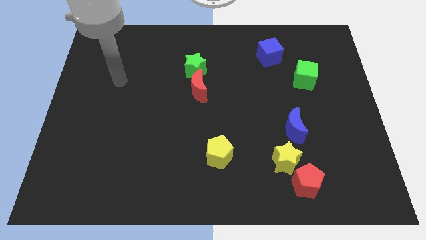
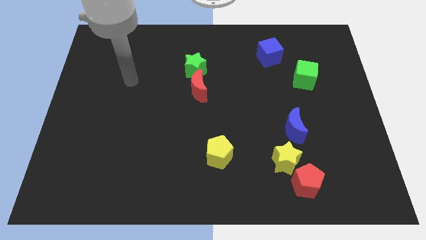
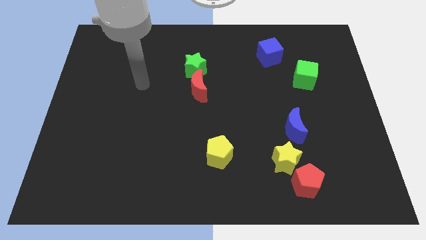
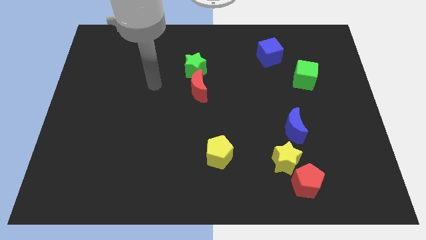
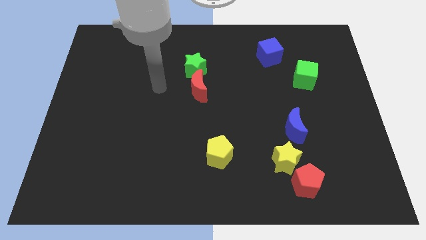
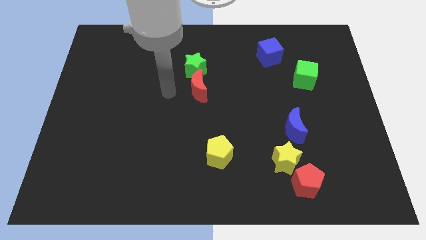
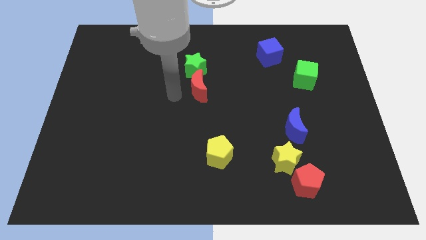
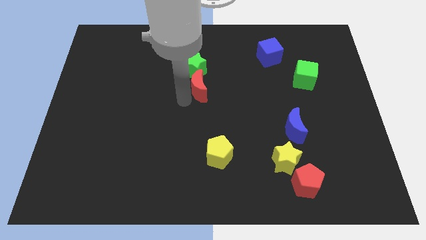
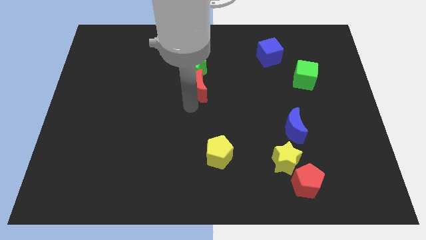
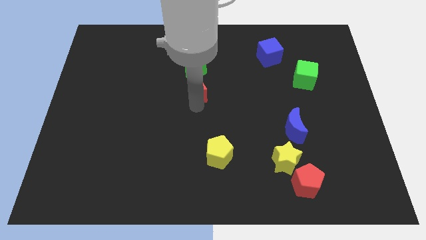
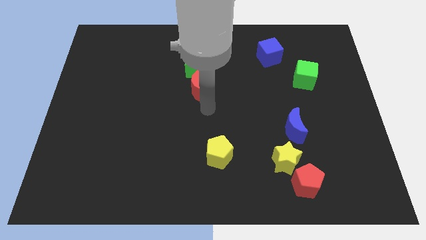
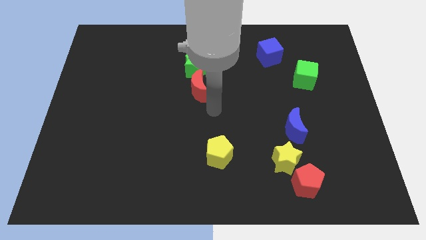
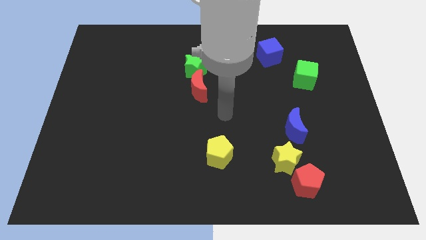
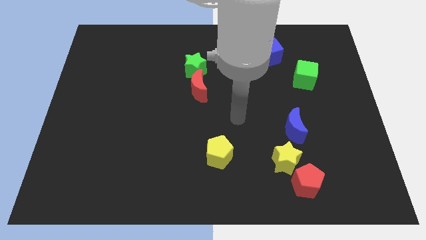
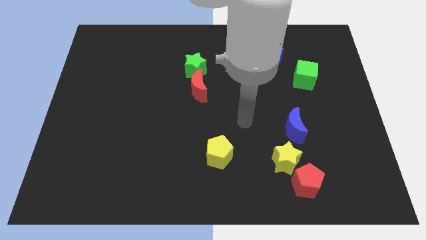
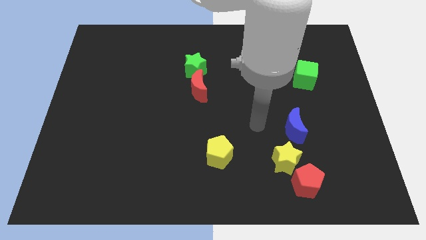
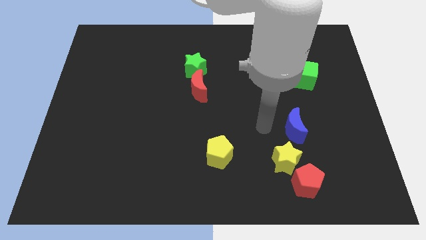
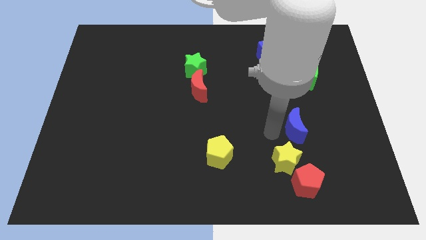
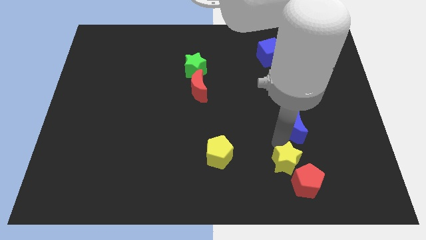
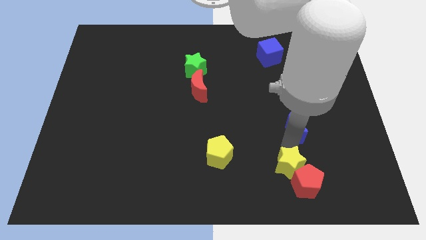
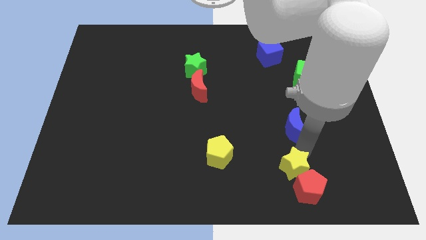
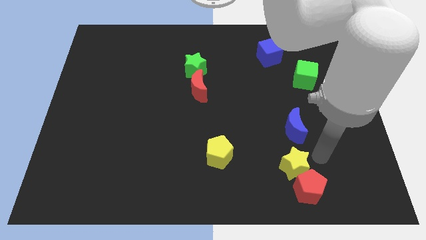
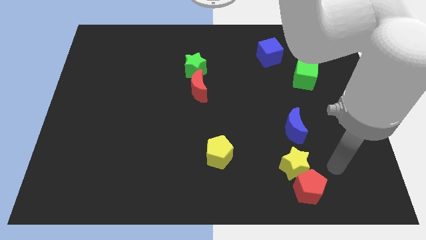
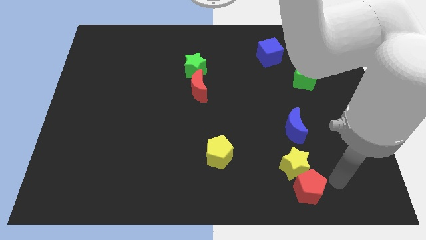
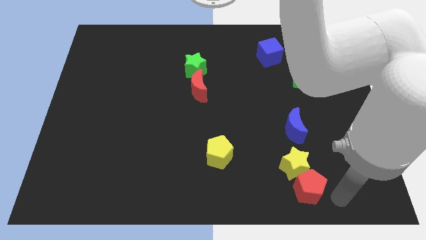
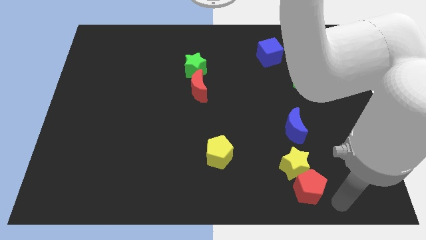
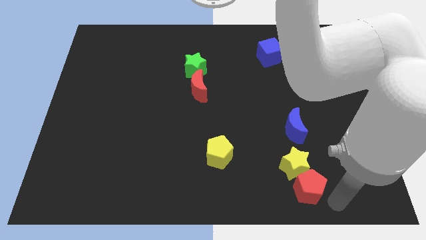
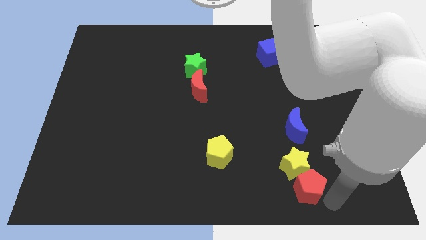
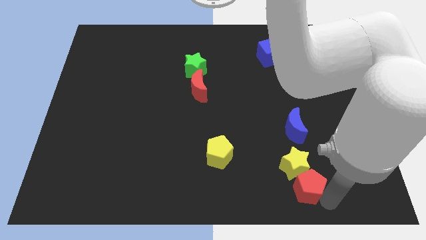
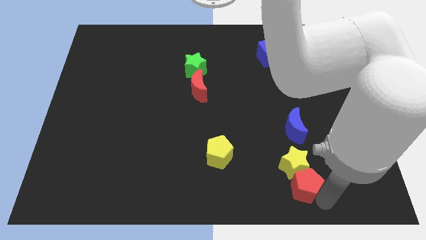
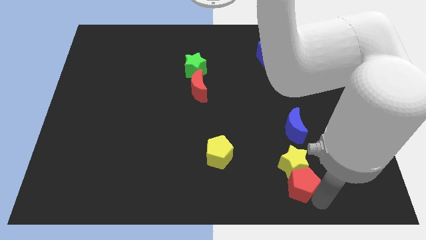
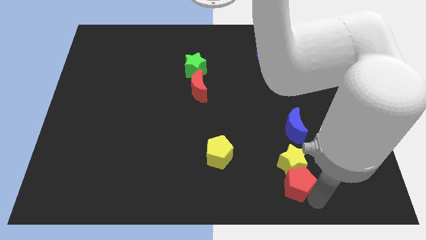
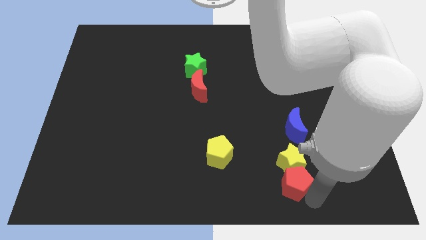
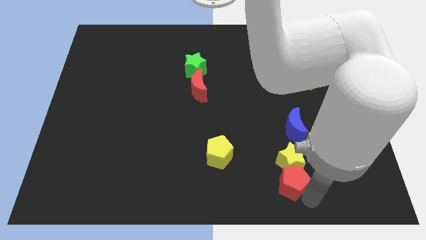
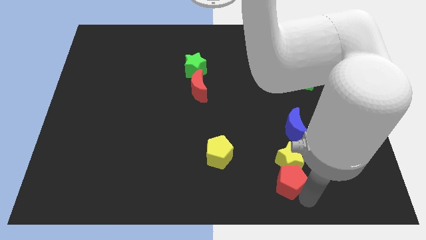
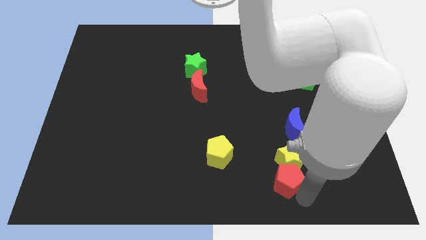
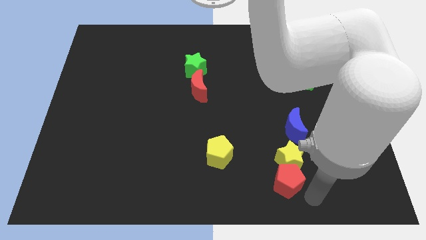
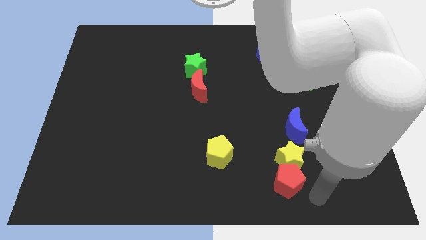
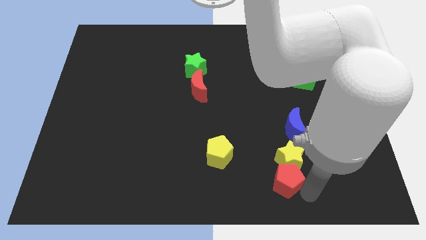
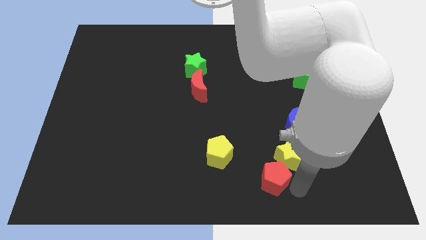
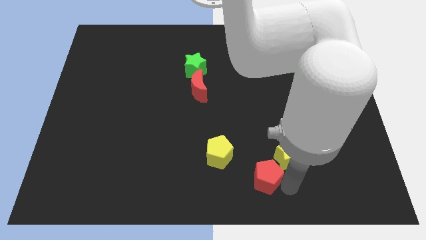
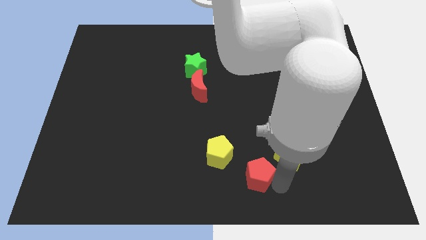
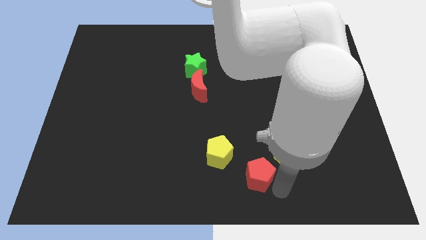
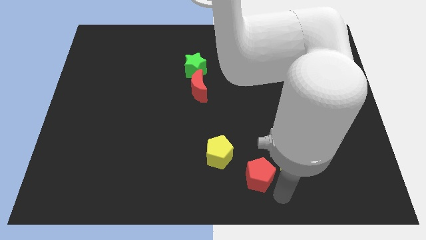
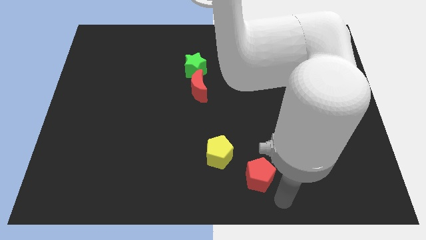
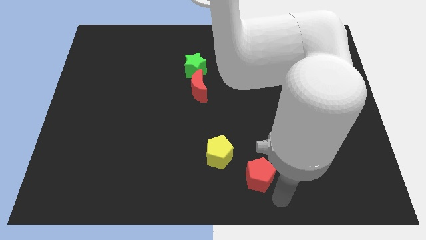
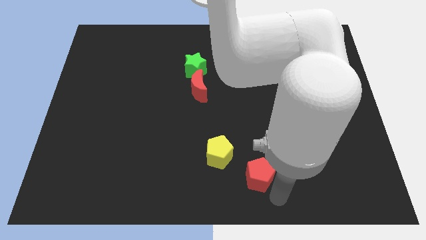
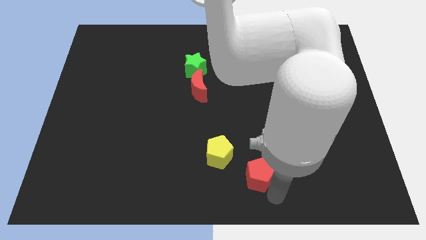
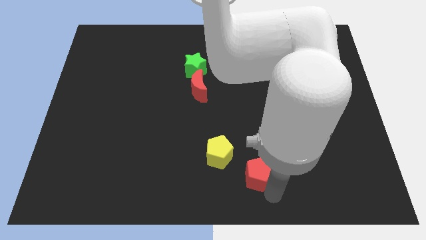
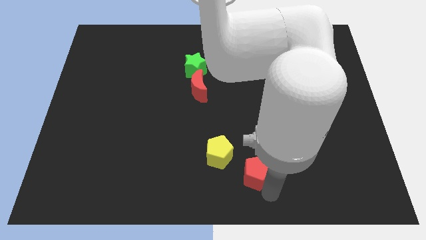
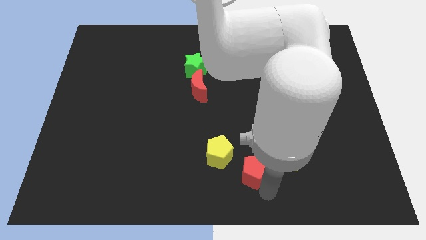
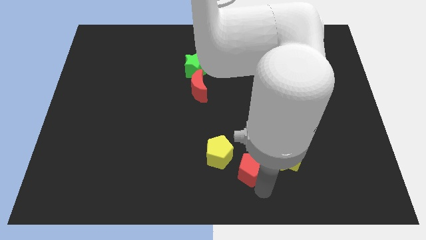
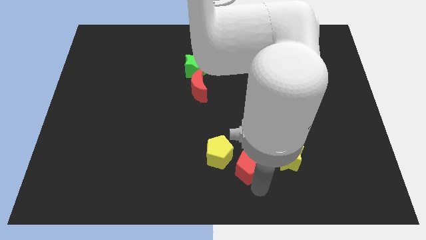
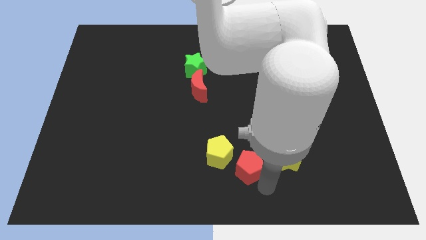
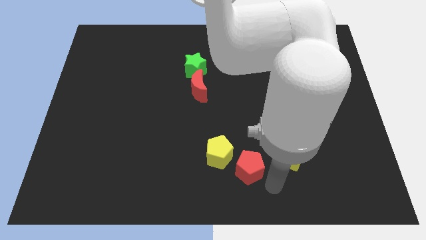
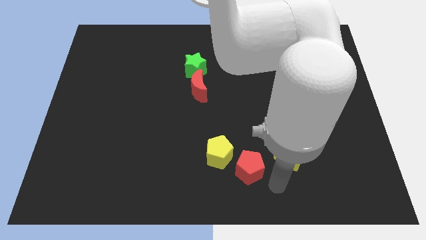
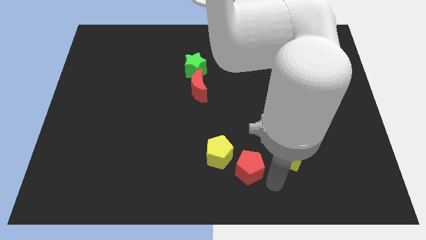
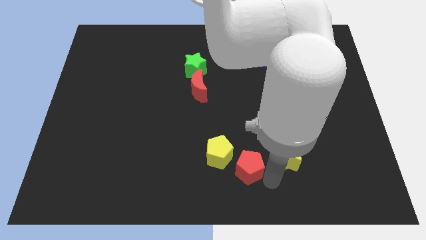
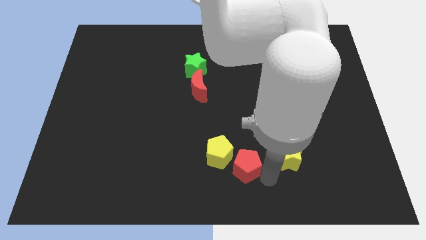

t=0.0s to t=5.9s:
push the red pentagon close to the yellow pentagon

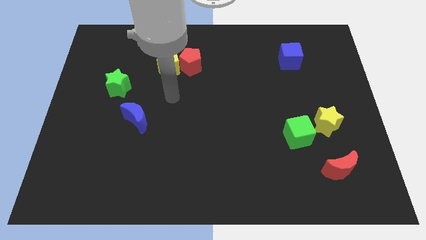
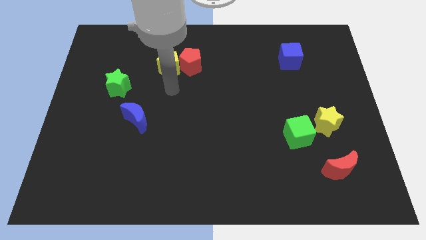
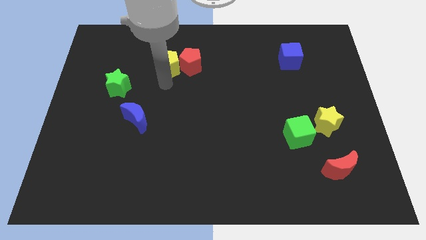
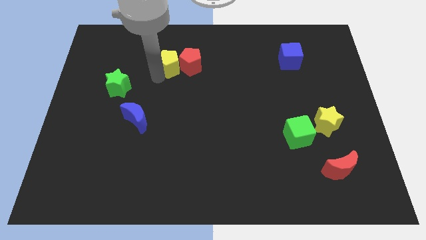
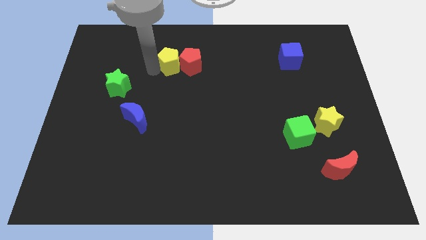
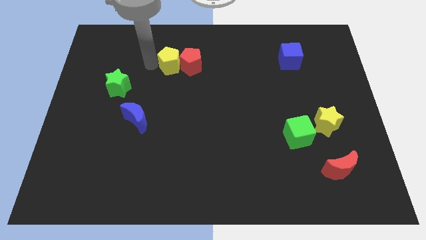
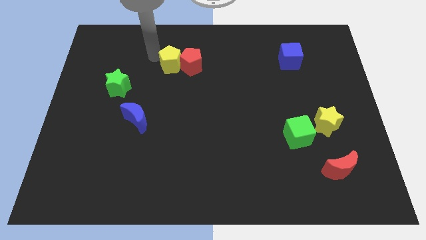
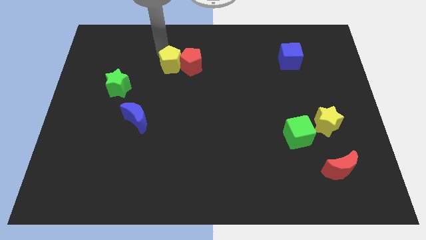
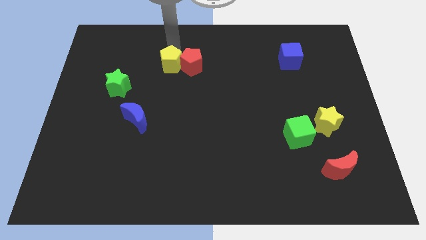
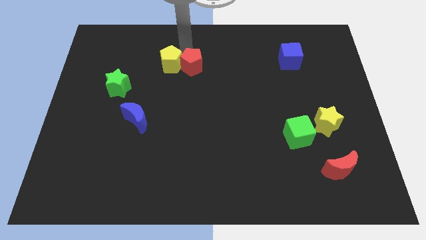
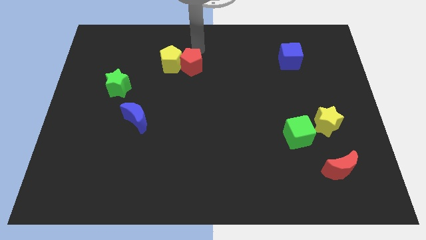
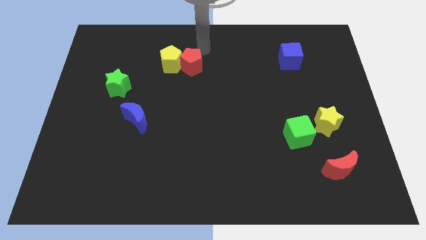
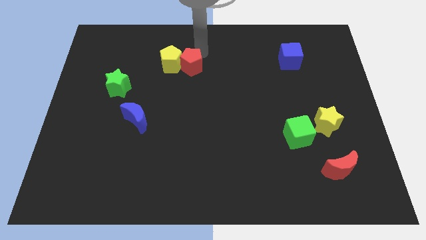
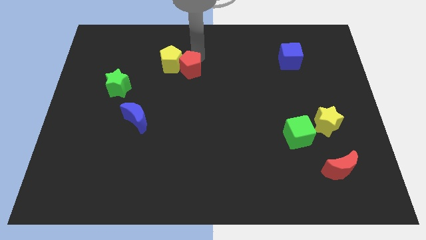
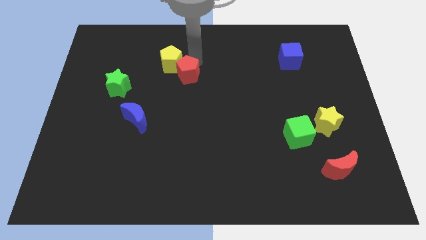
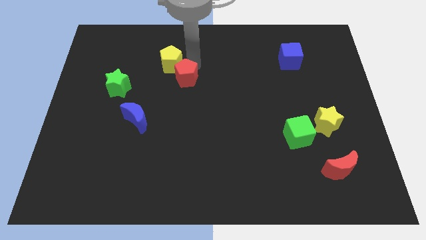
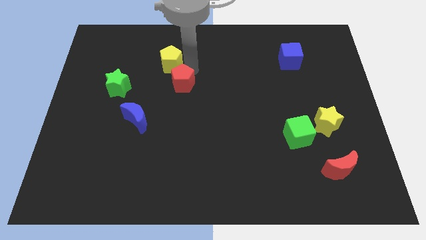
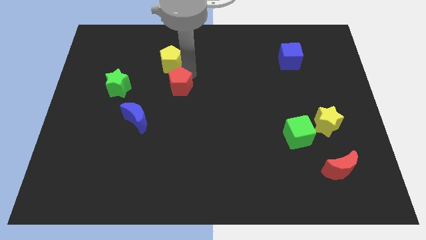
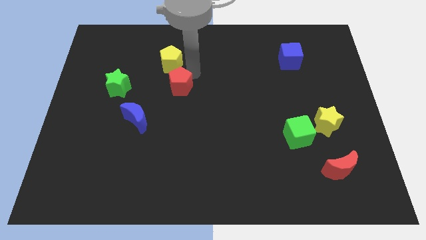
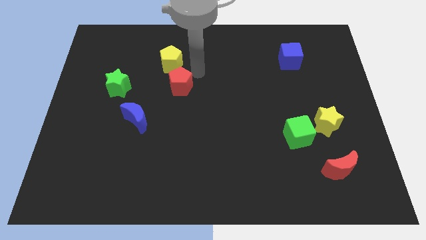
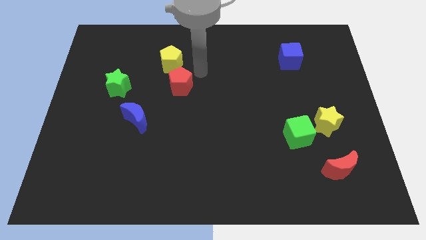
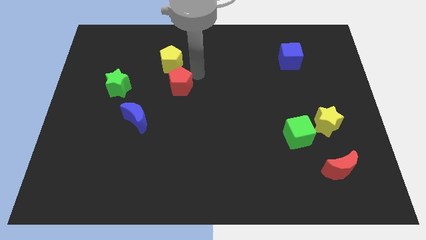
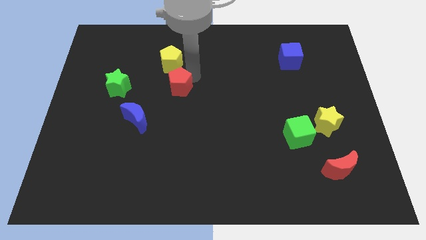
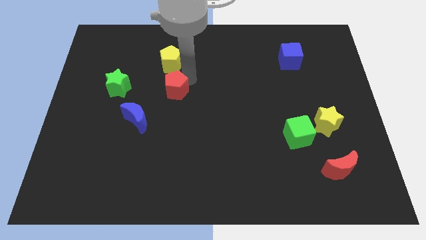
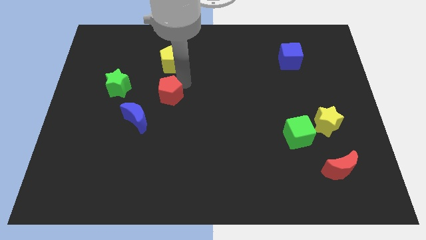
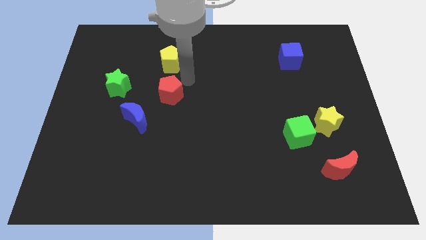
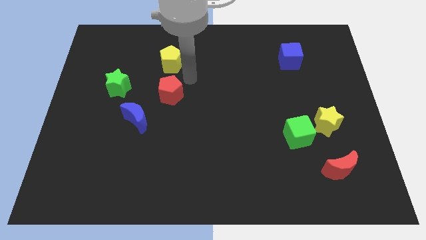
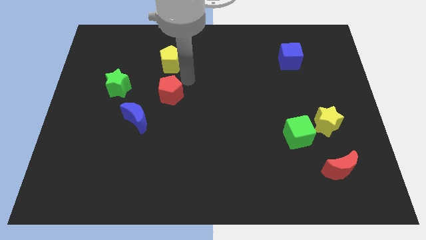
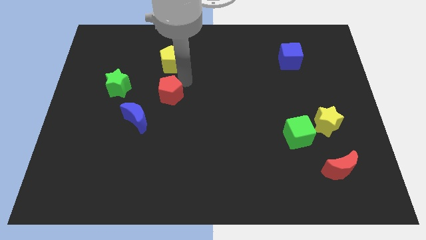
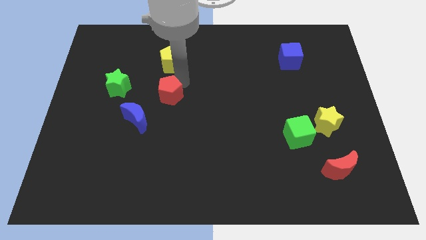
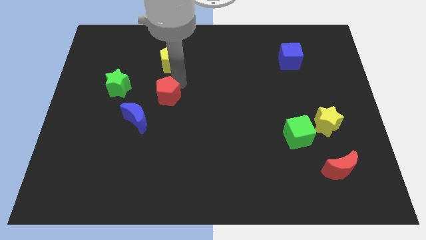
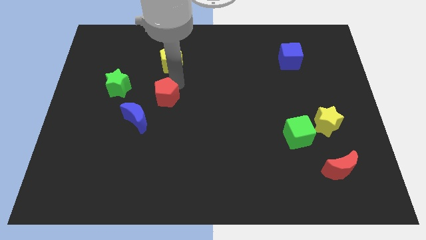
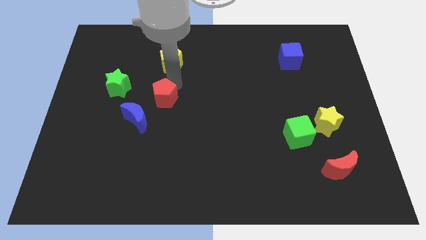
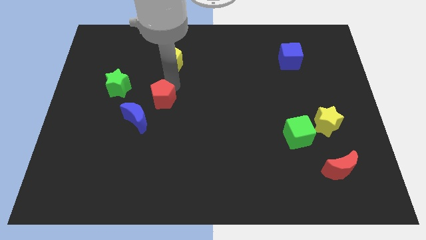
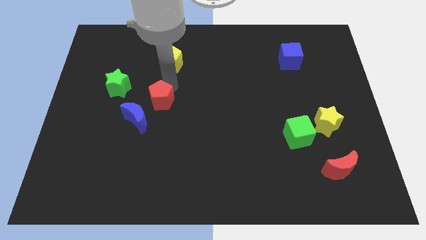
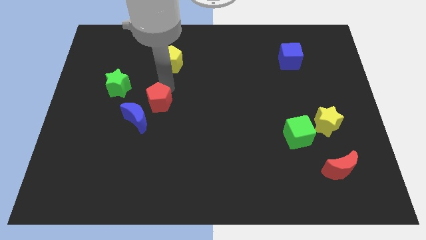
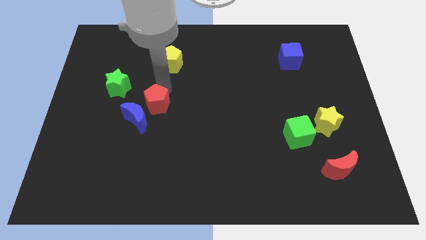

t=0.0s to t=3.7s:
move the red pentagon close to the blue moon
